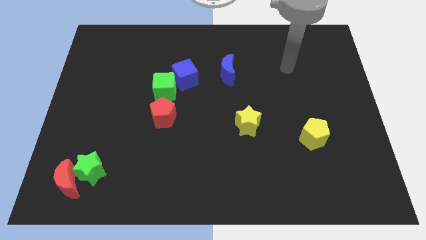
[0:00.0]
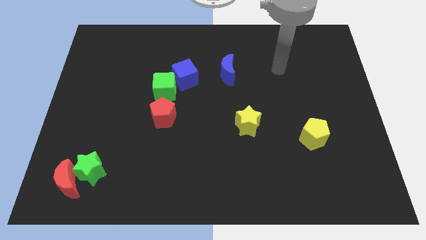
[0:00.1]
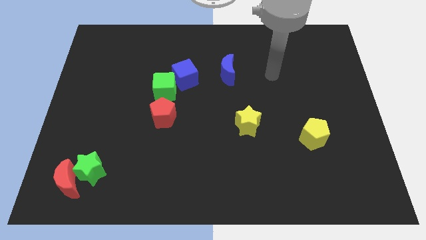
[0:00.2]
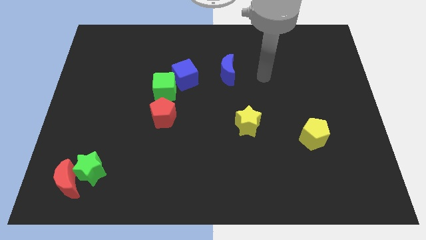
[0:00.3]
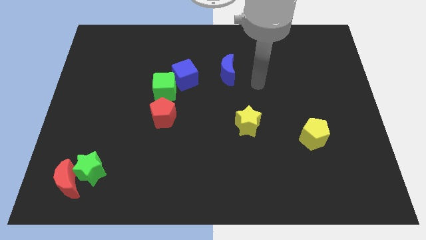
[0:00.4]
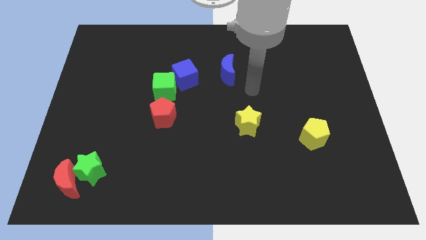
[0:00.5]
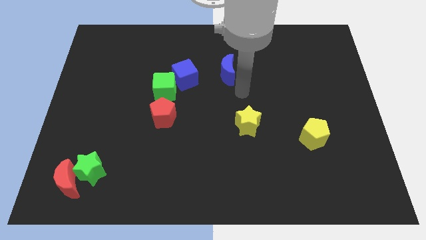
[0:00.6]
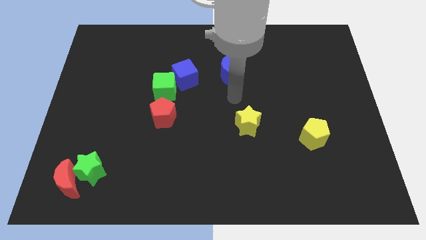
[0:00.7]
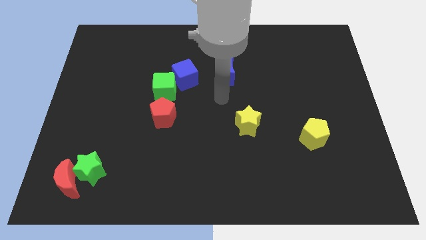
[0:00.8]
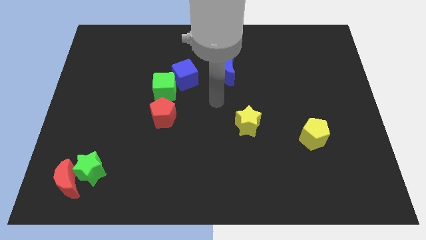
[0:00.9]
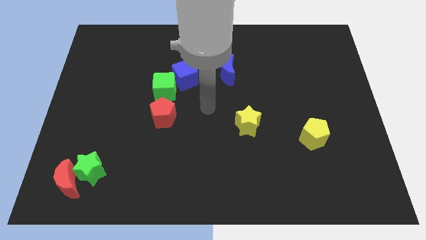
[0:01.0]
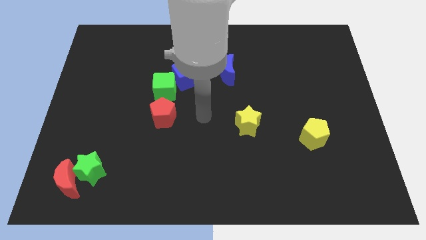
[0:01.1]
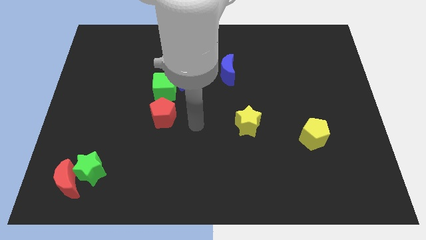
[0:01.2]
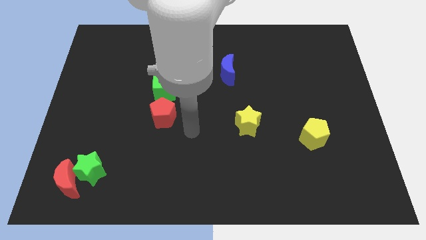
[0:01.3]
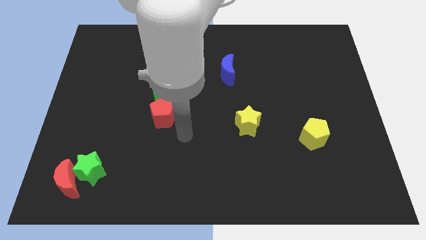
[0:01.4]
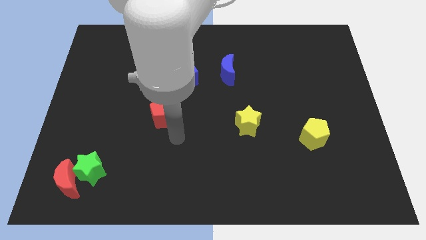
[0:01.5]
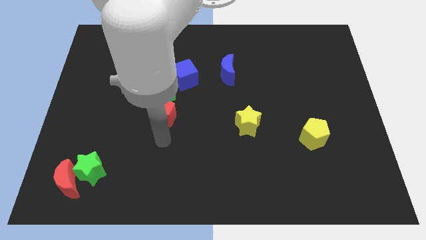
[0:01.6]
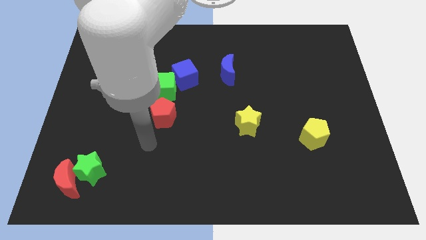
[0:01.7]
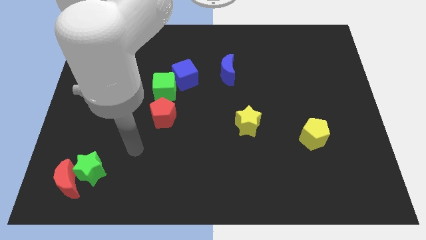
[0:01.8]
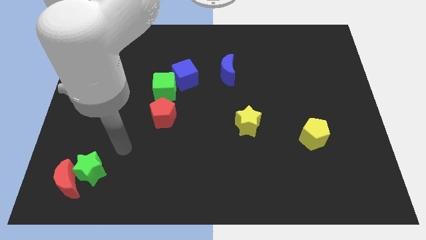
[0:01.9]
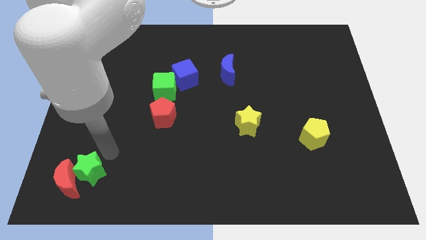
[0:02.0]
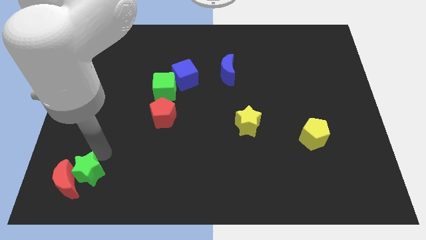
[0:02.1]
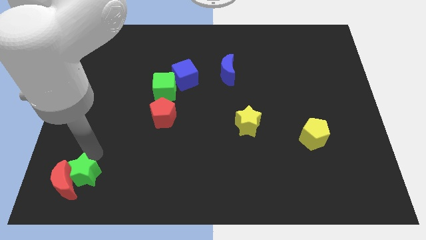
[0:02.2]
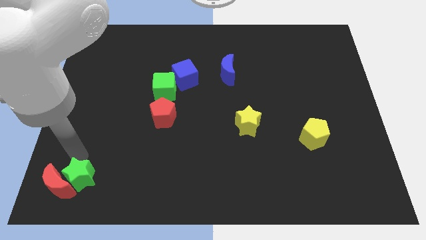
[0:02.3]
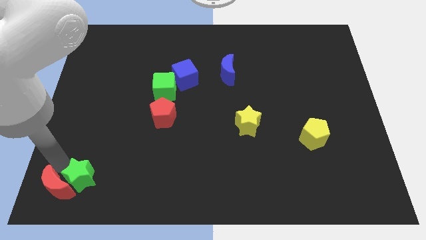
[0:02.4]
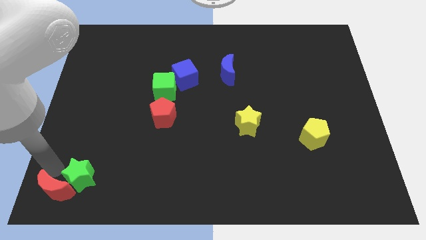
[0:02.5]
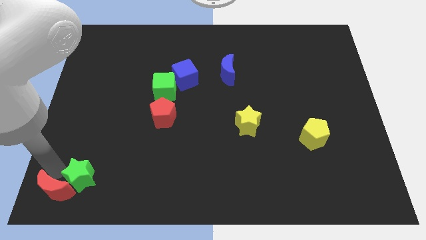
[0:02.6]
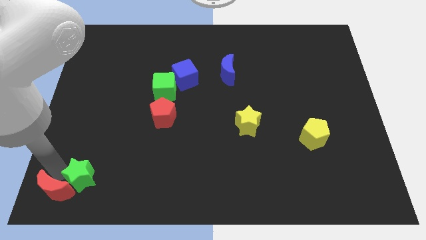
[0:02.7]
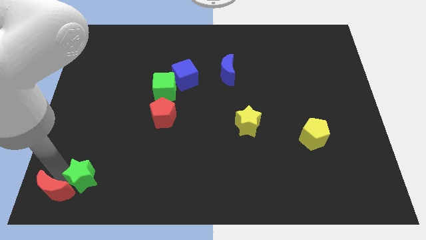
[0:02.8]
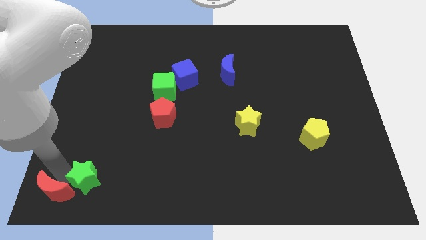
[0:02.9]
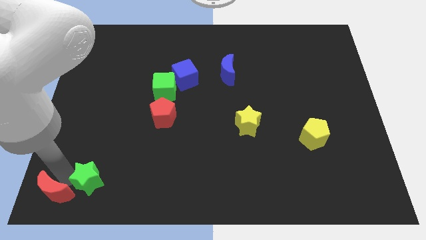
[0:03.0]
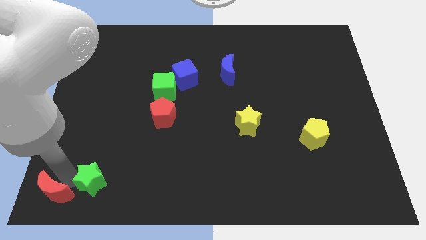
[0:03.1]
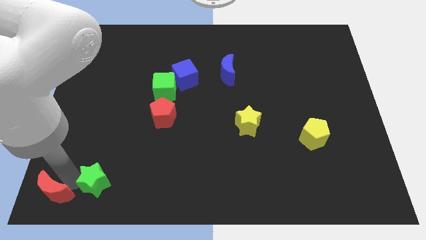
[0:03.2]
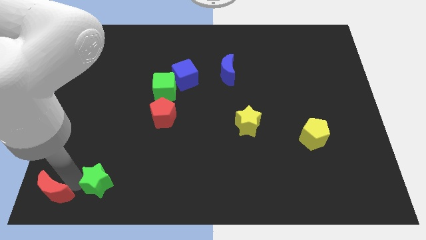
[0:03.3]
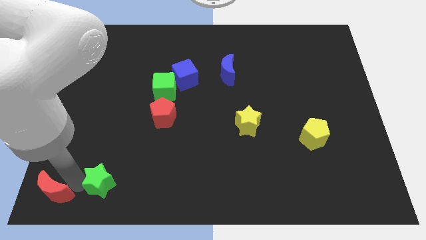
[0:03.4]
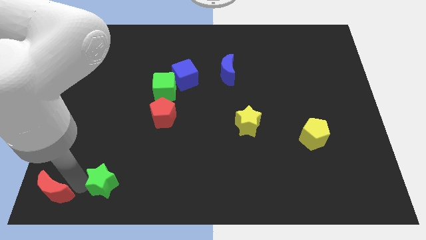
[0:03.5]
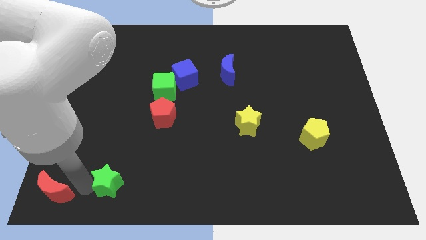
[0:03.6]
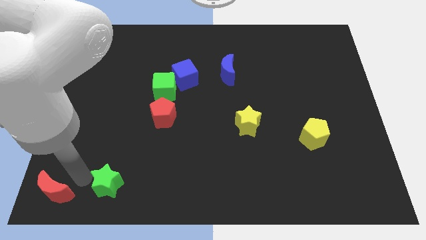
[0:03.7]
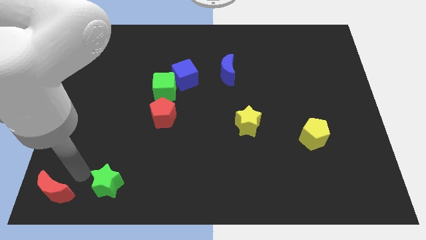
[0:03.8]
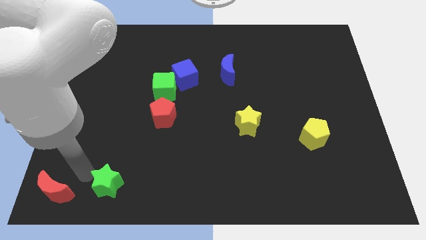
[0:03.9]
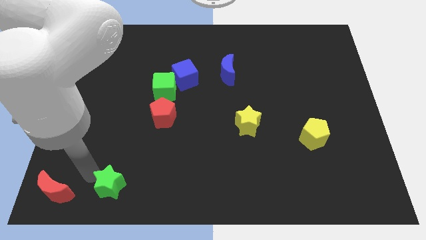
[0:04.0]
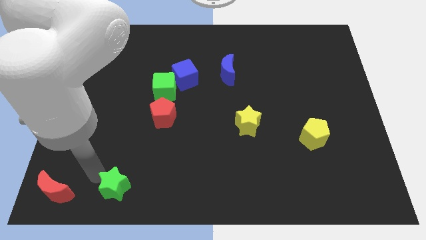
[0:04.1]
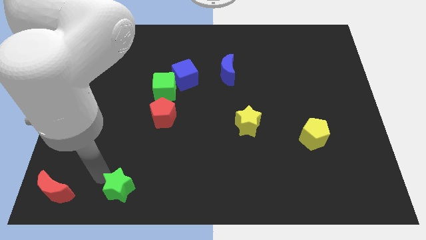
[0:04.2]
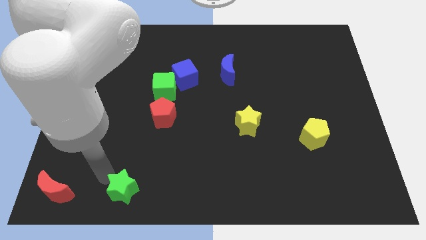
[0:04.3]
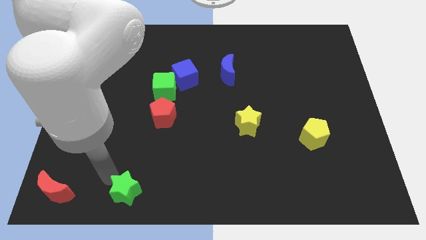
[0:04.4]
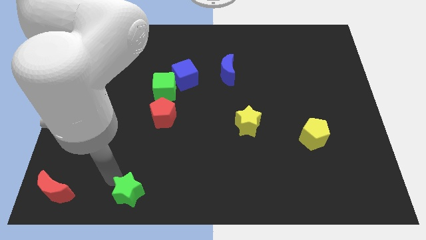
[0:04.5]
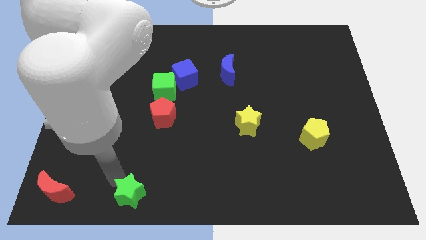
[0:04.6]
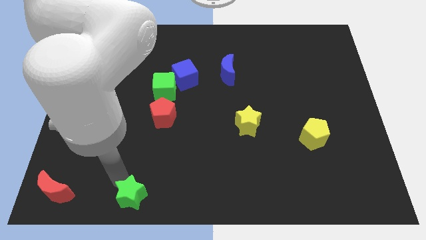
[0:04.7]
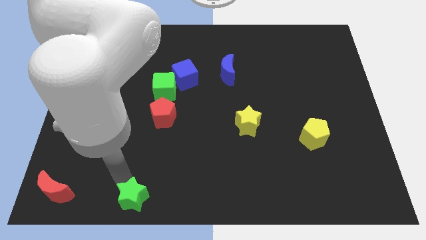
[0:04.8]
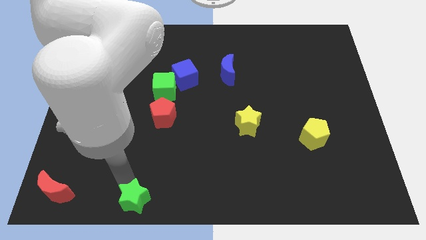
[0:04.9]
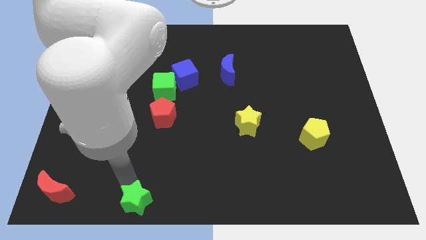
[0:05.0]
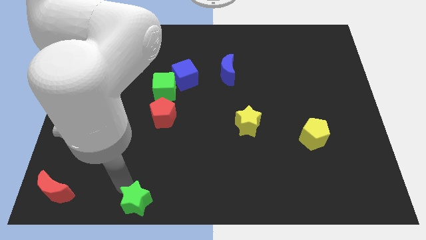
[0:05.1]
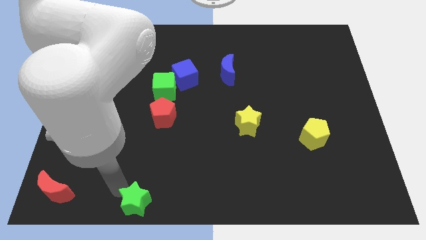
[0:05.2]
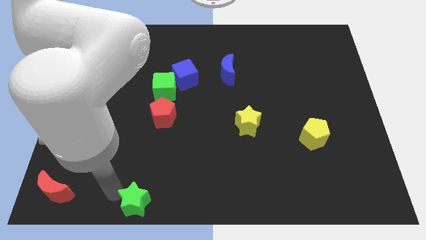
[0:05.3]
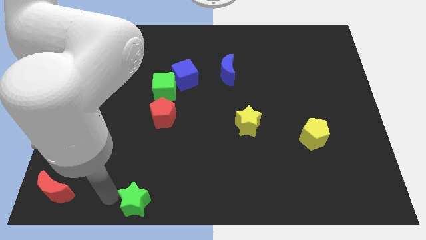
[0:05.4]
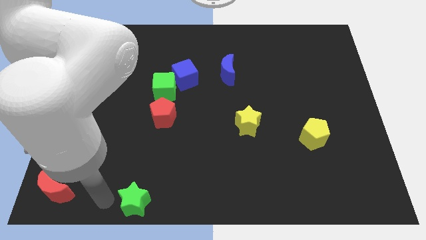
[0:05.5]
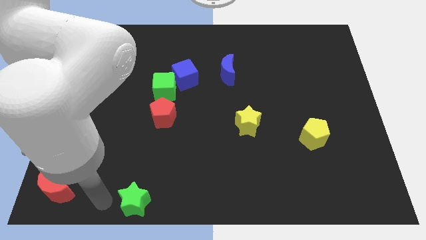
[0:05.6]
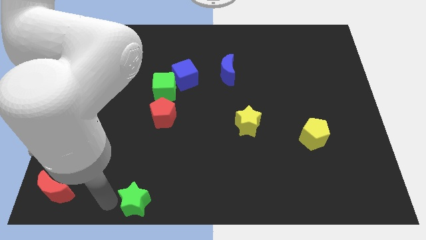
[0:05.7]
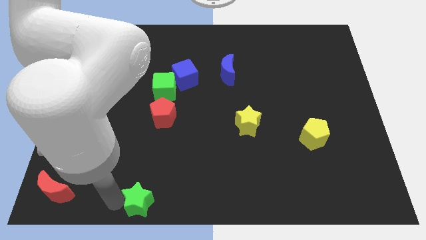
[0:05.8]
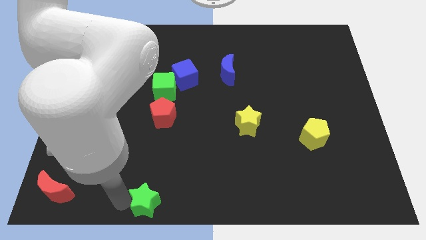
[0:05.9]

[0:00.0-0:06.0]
move the green star to the bottom

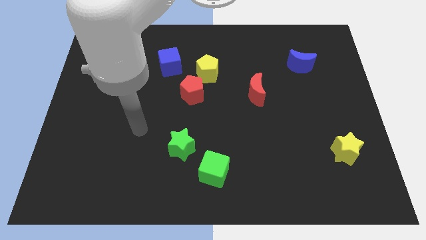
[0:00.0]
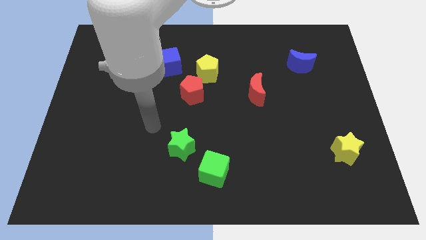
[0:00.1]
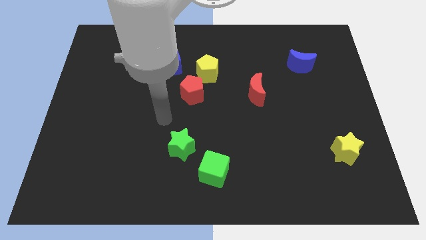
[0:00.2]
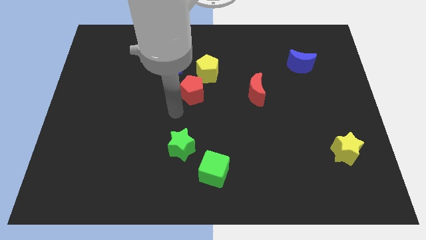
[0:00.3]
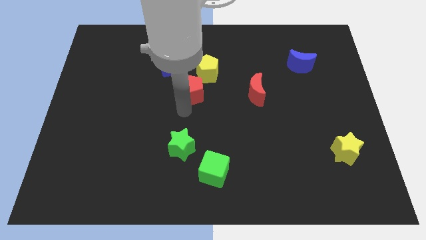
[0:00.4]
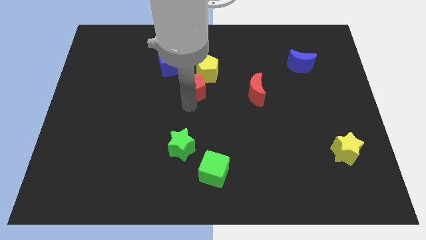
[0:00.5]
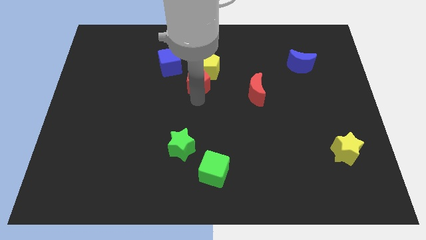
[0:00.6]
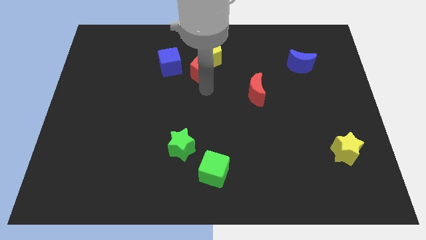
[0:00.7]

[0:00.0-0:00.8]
put the yellow pentagon to the towards your base
